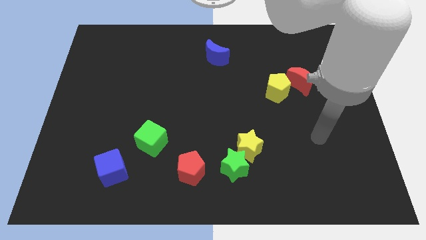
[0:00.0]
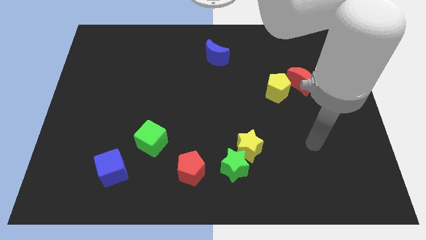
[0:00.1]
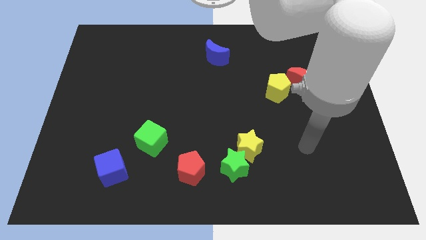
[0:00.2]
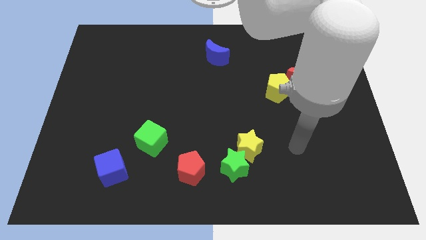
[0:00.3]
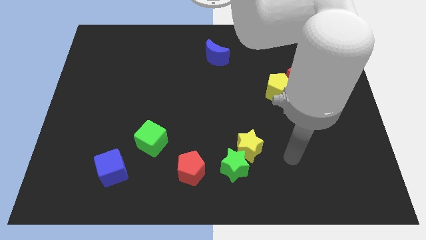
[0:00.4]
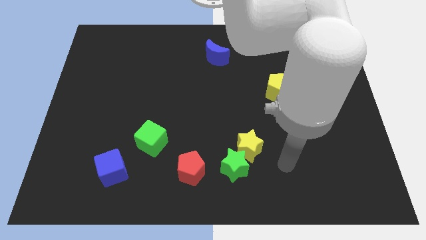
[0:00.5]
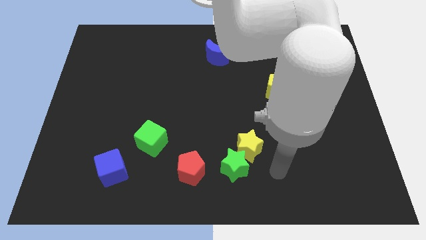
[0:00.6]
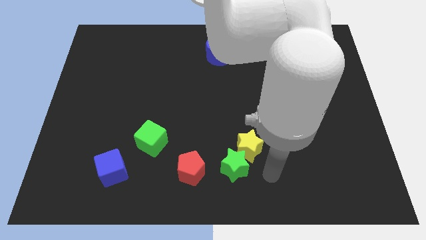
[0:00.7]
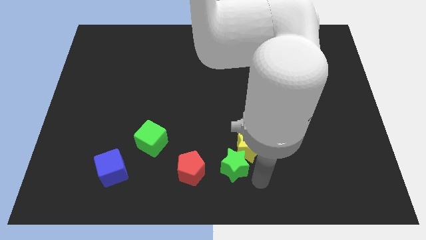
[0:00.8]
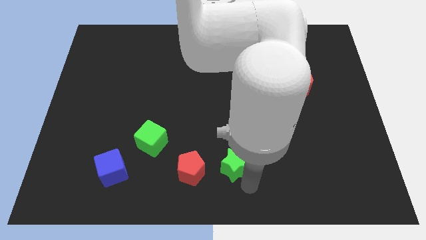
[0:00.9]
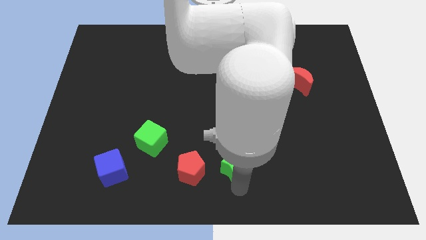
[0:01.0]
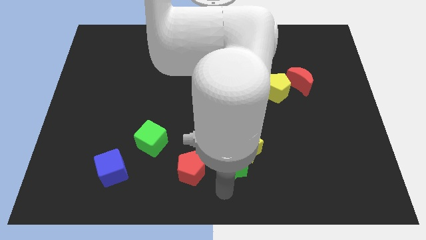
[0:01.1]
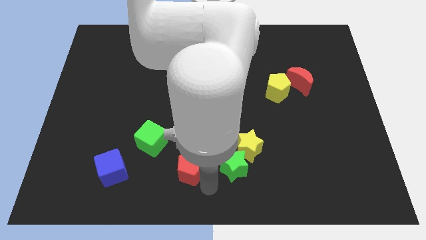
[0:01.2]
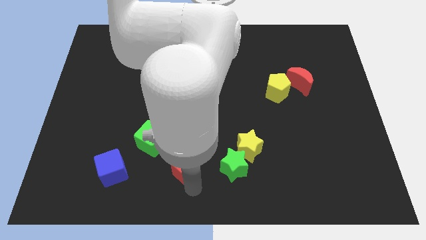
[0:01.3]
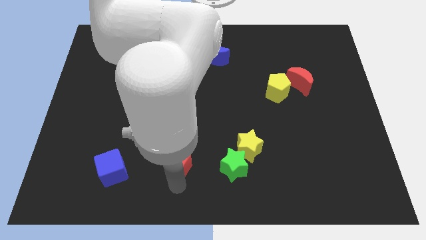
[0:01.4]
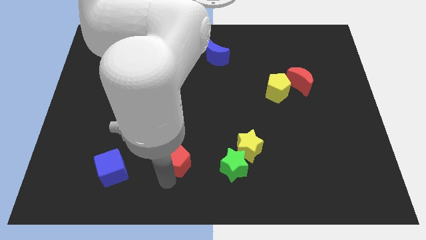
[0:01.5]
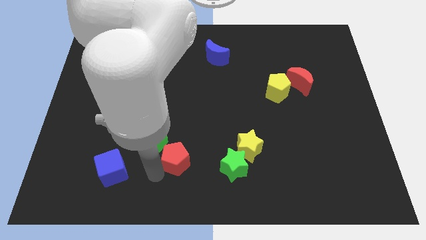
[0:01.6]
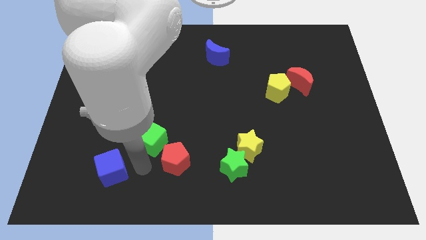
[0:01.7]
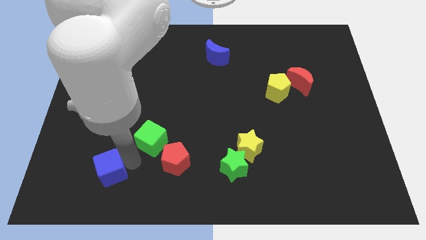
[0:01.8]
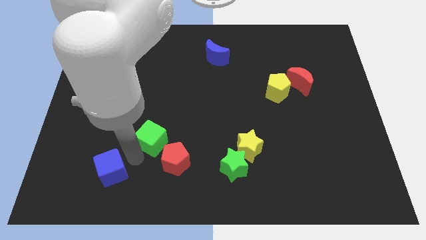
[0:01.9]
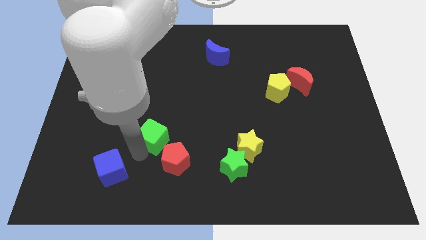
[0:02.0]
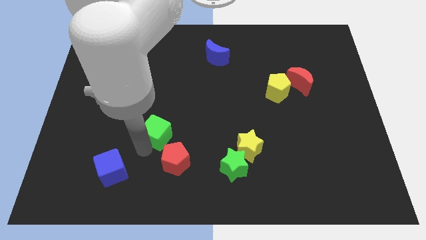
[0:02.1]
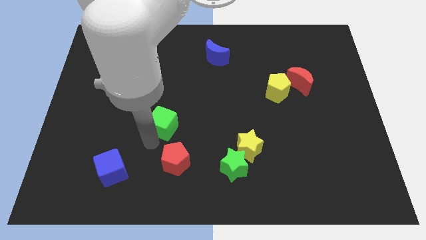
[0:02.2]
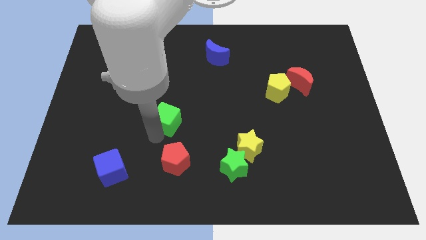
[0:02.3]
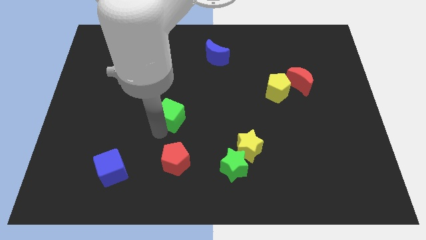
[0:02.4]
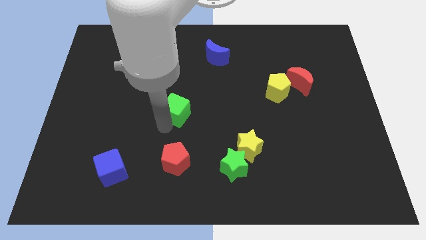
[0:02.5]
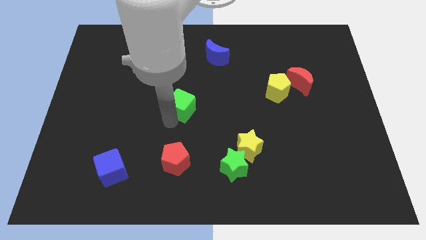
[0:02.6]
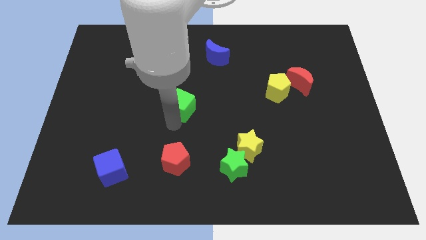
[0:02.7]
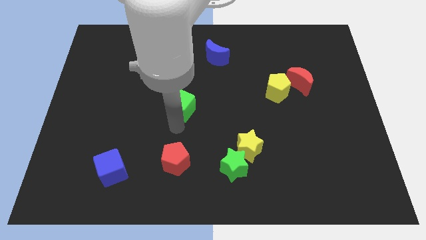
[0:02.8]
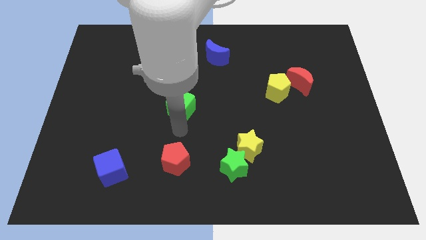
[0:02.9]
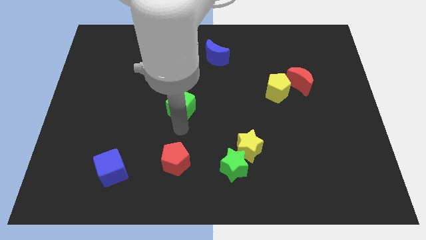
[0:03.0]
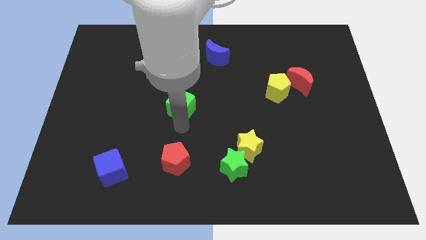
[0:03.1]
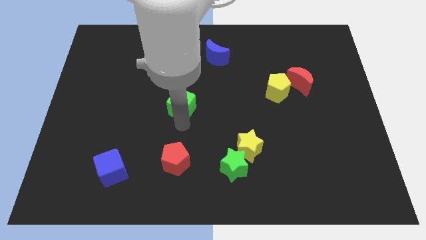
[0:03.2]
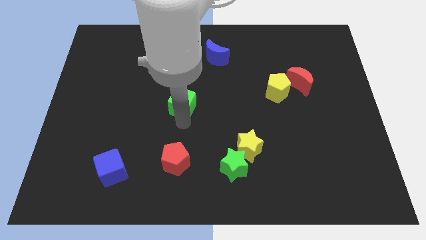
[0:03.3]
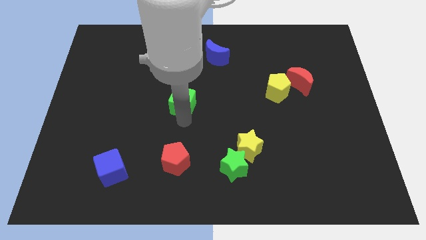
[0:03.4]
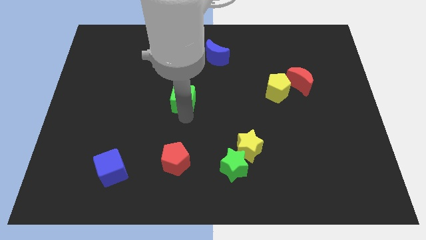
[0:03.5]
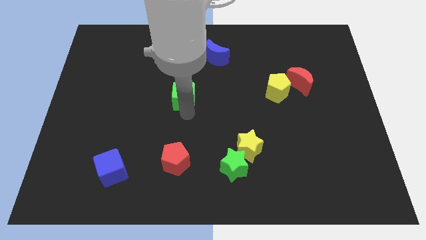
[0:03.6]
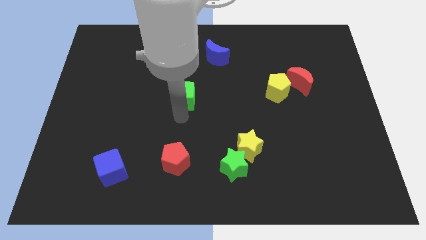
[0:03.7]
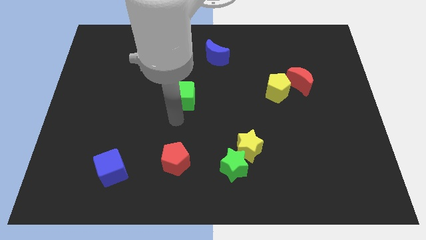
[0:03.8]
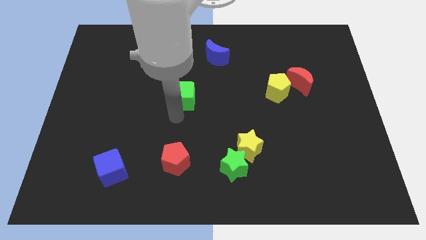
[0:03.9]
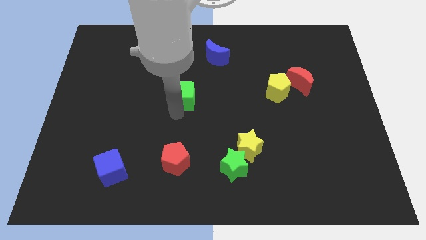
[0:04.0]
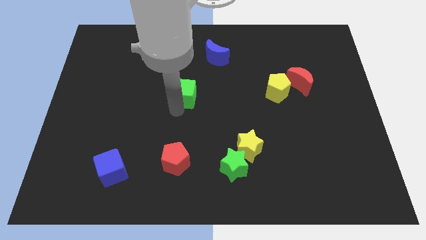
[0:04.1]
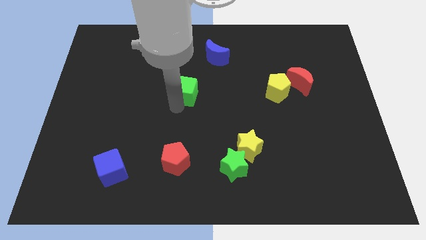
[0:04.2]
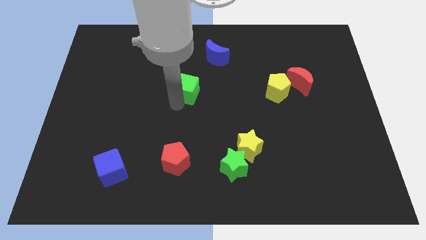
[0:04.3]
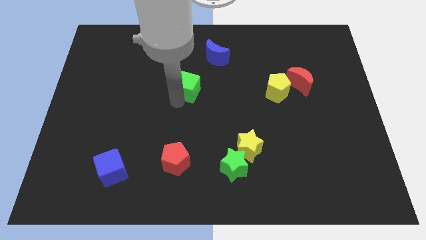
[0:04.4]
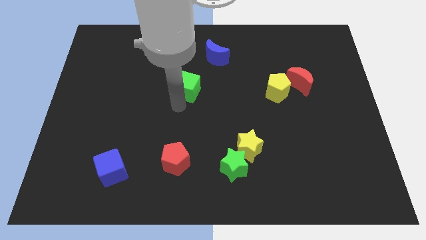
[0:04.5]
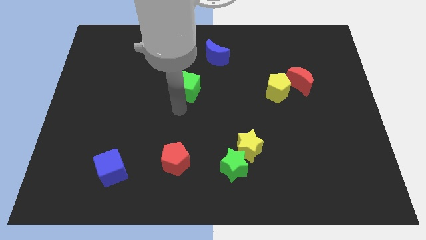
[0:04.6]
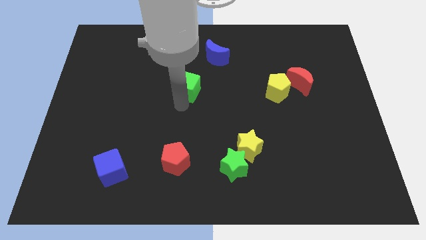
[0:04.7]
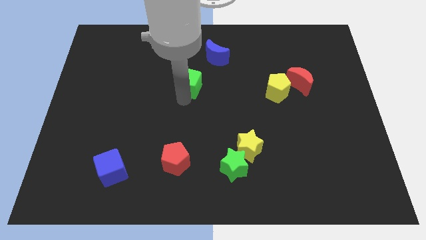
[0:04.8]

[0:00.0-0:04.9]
push the green cube to the bottom left side of the blue moon

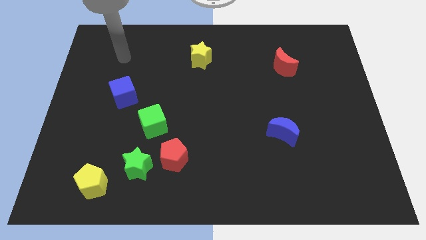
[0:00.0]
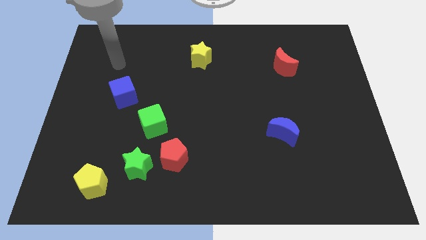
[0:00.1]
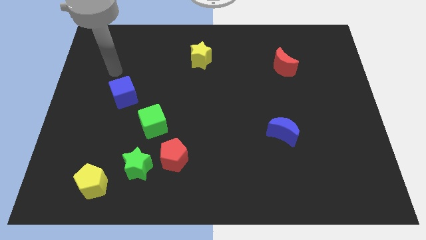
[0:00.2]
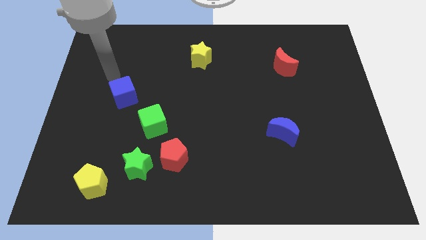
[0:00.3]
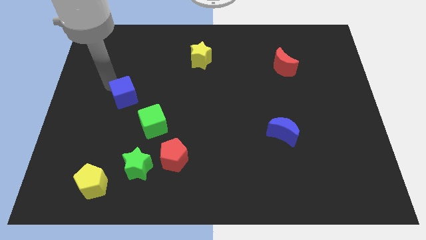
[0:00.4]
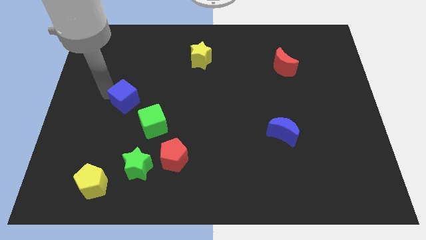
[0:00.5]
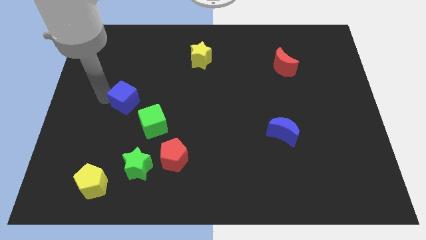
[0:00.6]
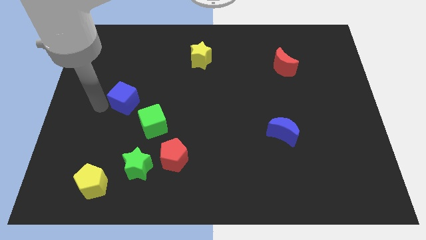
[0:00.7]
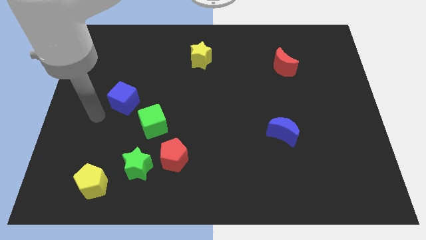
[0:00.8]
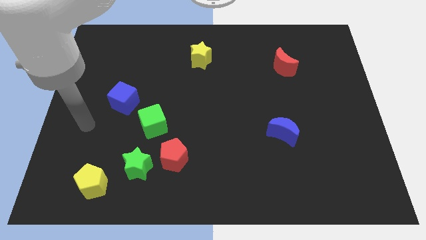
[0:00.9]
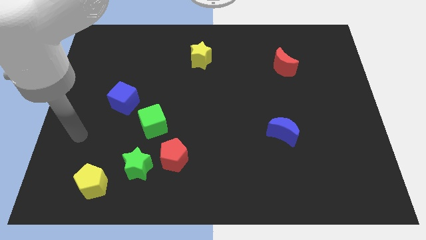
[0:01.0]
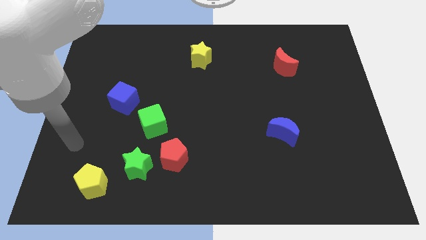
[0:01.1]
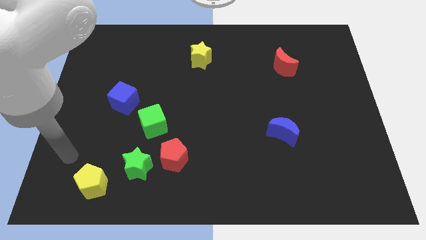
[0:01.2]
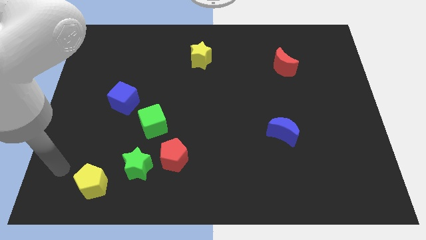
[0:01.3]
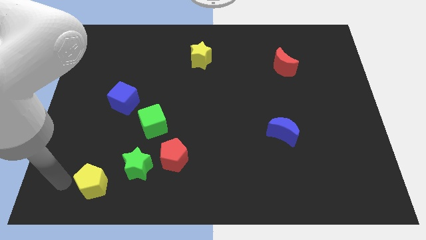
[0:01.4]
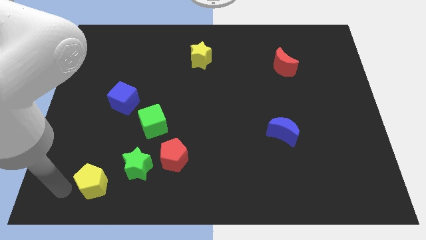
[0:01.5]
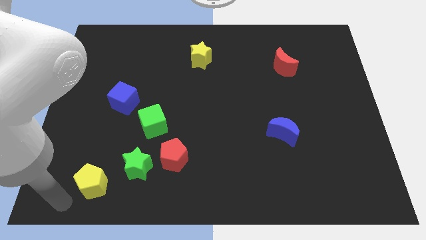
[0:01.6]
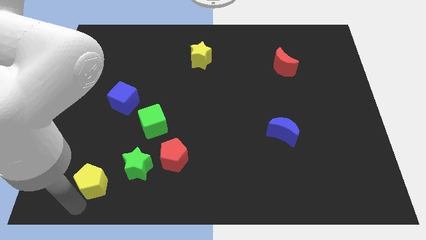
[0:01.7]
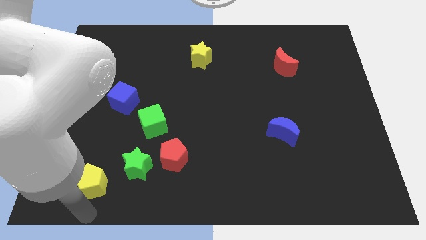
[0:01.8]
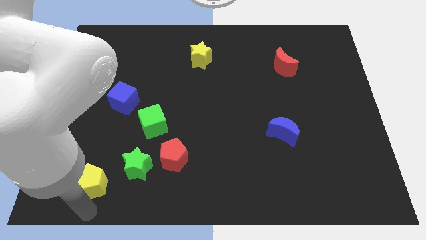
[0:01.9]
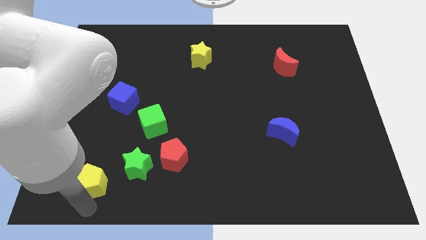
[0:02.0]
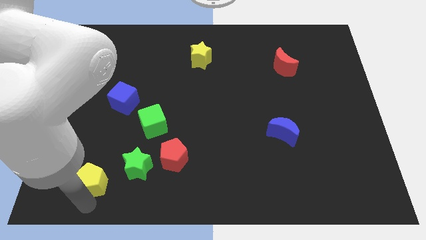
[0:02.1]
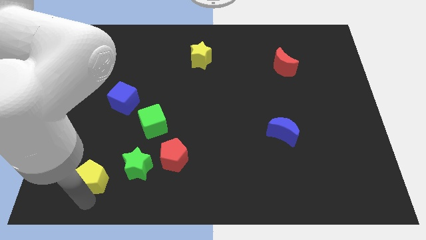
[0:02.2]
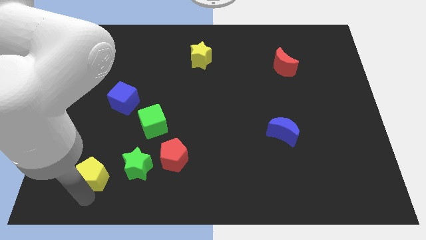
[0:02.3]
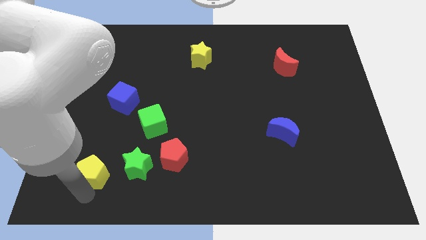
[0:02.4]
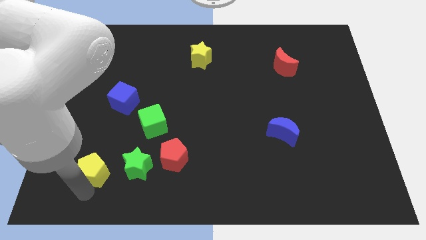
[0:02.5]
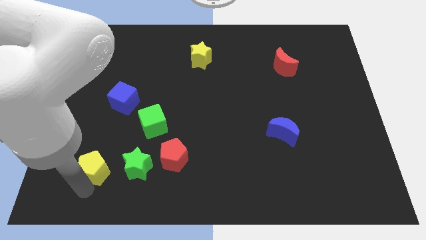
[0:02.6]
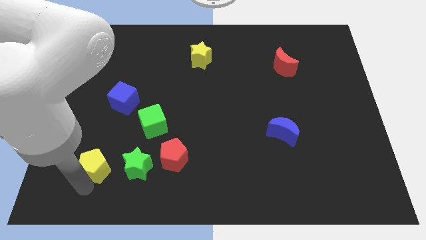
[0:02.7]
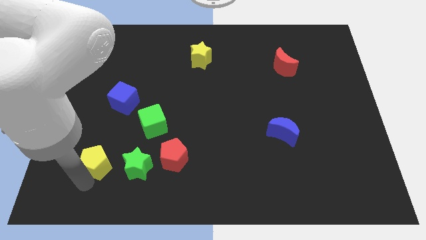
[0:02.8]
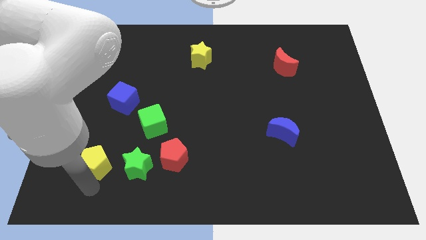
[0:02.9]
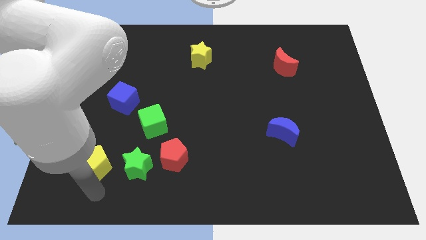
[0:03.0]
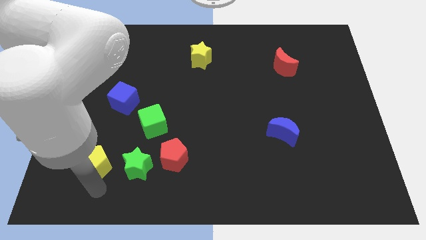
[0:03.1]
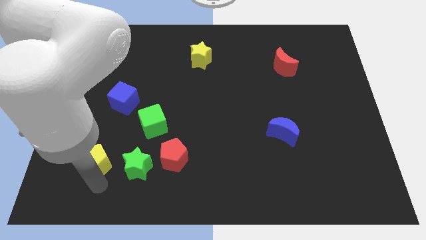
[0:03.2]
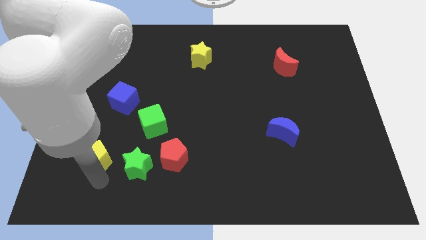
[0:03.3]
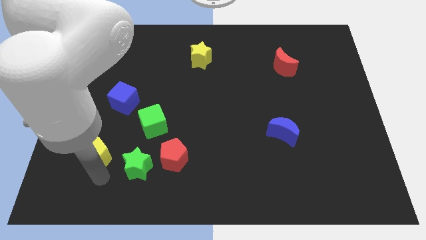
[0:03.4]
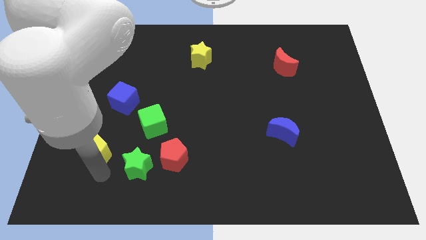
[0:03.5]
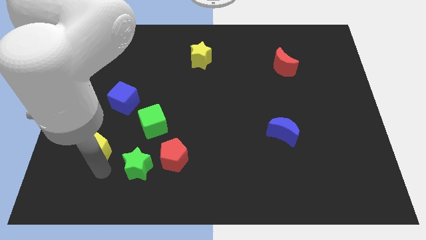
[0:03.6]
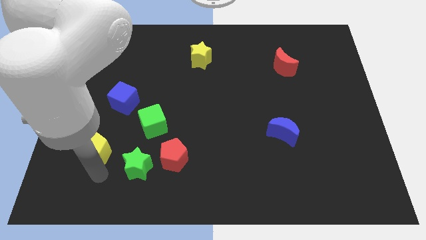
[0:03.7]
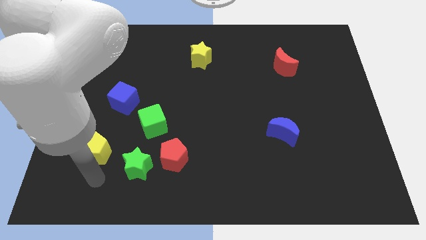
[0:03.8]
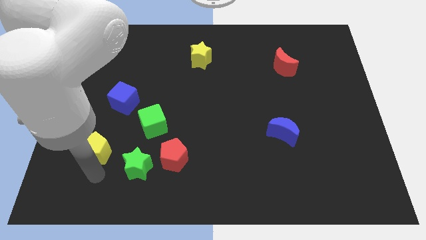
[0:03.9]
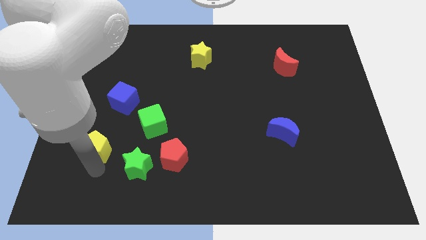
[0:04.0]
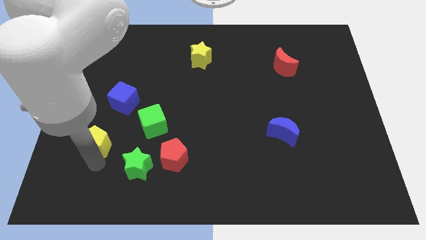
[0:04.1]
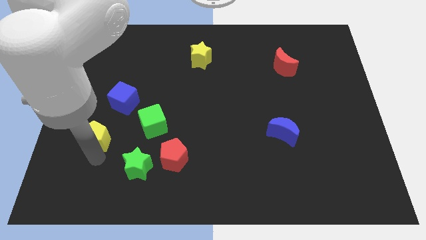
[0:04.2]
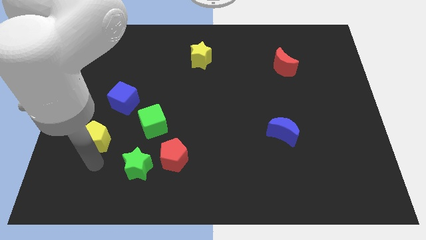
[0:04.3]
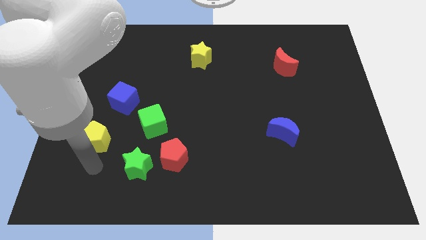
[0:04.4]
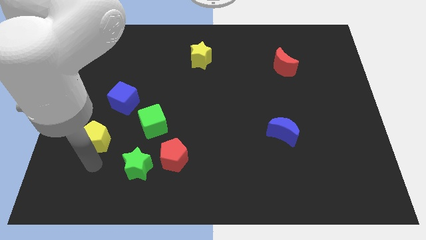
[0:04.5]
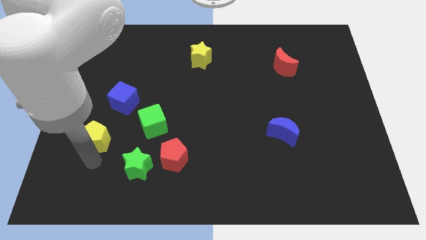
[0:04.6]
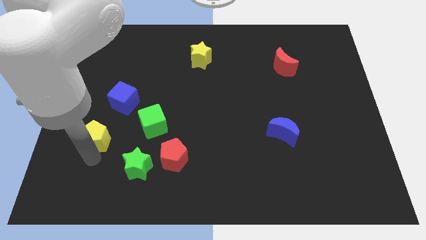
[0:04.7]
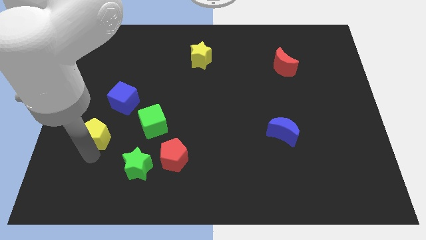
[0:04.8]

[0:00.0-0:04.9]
push the yellow pentagon to the bottom left of the blue cube
